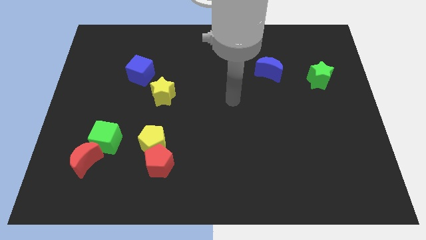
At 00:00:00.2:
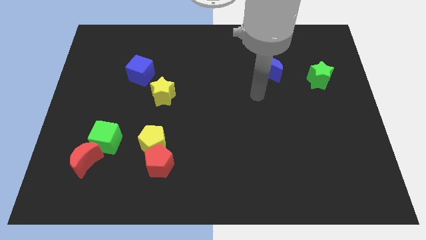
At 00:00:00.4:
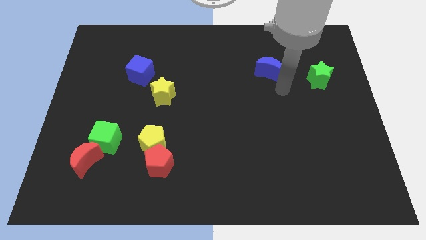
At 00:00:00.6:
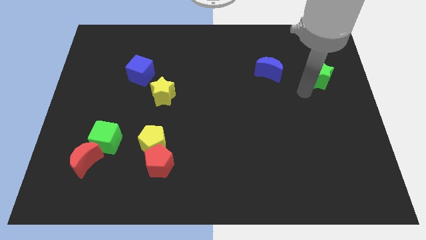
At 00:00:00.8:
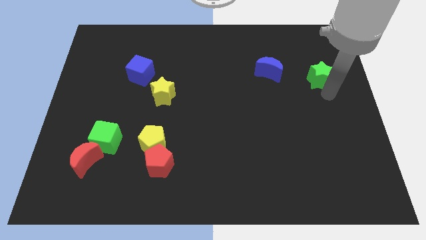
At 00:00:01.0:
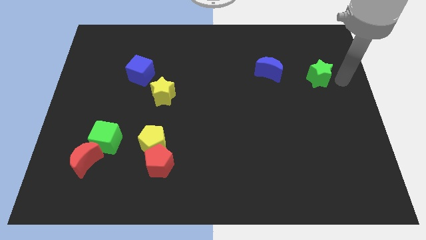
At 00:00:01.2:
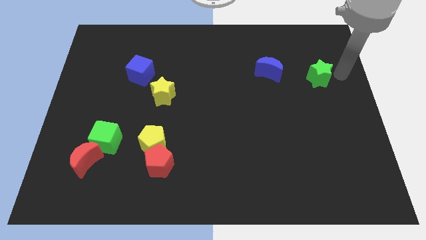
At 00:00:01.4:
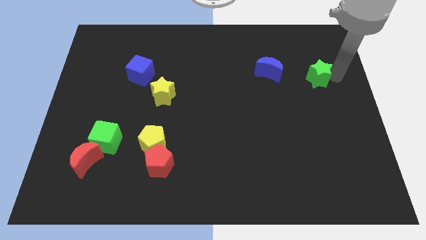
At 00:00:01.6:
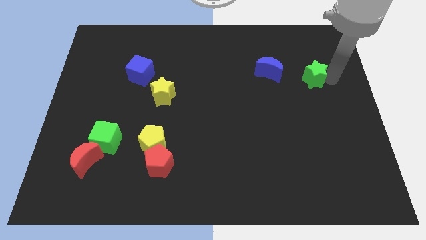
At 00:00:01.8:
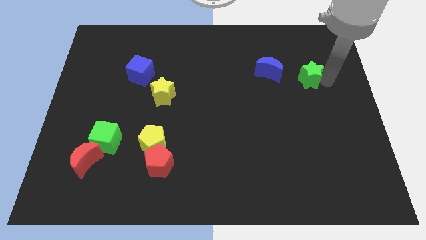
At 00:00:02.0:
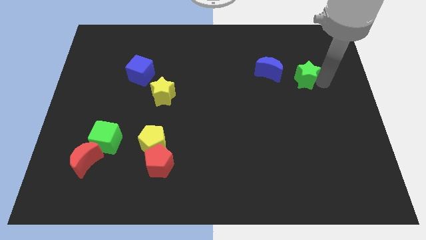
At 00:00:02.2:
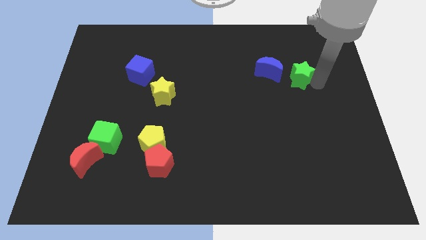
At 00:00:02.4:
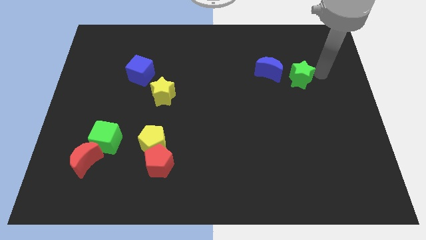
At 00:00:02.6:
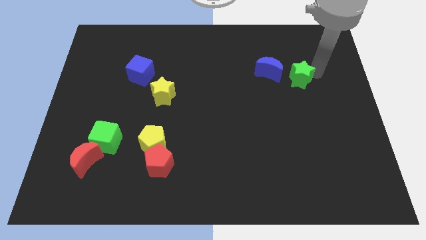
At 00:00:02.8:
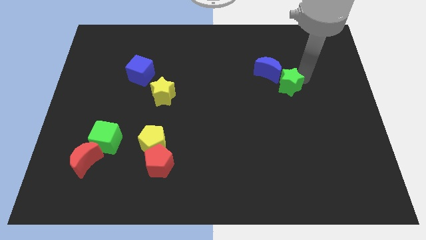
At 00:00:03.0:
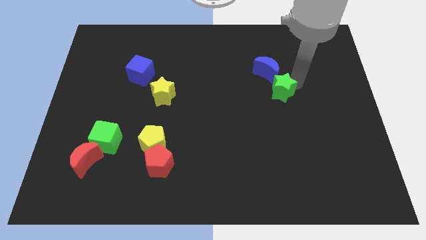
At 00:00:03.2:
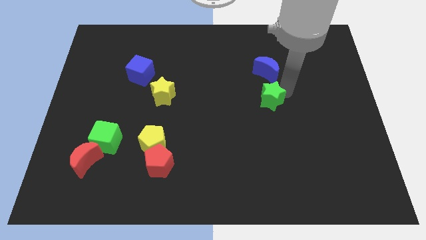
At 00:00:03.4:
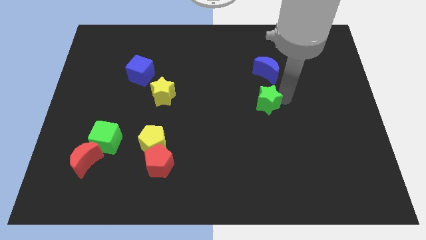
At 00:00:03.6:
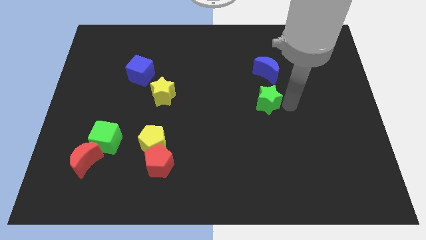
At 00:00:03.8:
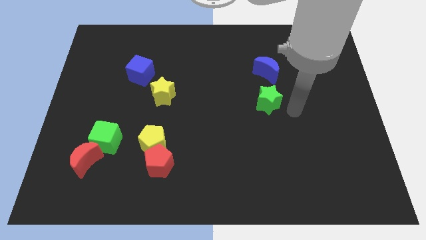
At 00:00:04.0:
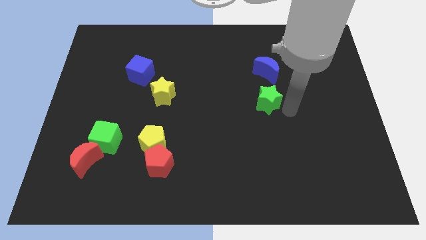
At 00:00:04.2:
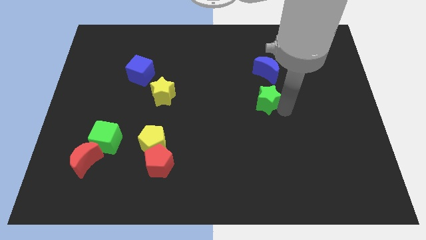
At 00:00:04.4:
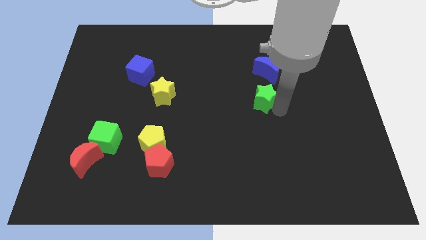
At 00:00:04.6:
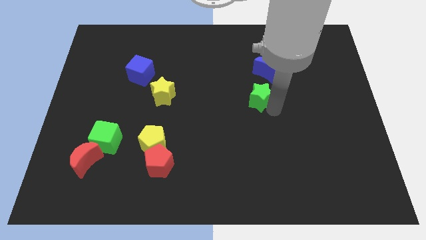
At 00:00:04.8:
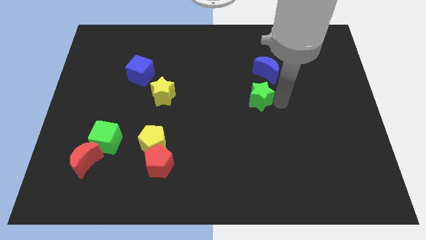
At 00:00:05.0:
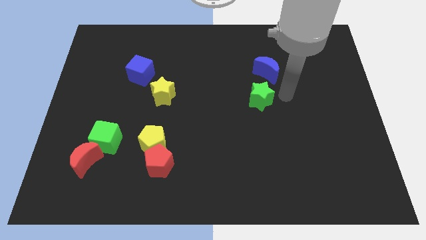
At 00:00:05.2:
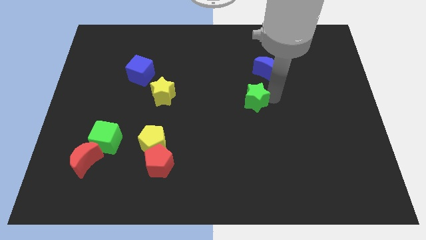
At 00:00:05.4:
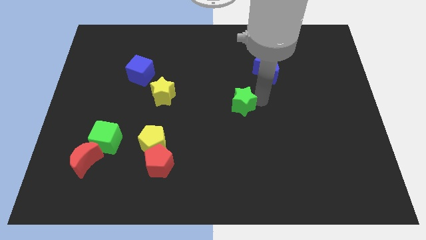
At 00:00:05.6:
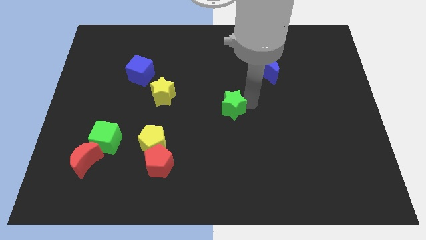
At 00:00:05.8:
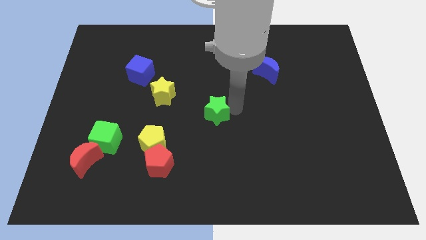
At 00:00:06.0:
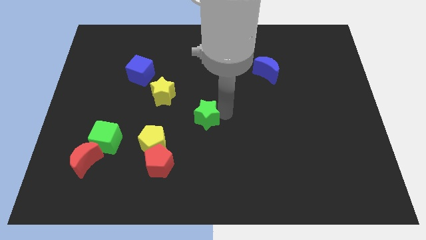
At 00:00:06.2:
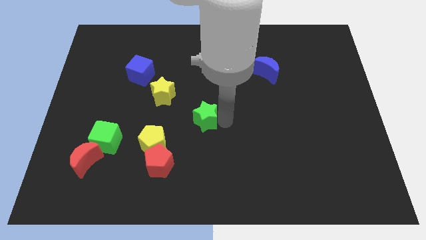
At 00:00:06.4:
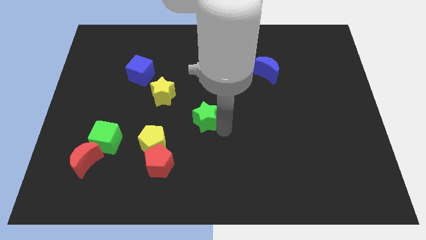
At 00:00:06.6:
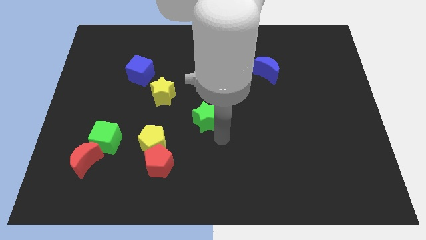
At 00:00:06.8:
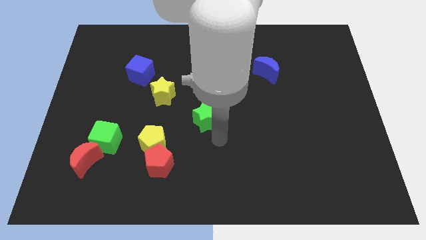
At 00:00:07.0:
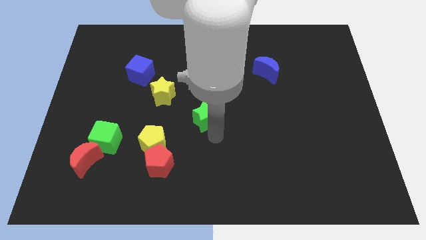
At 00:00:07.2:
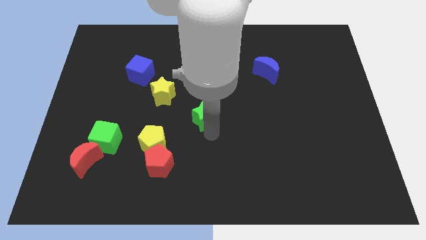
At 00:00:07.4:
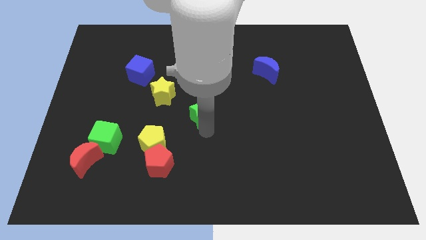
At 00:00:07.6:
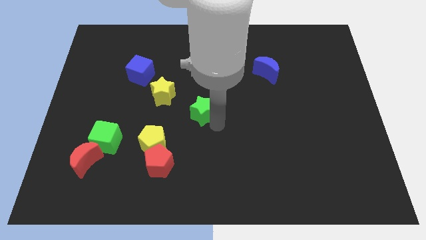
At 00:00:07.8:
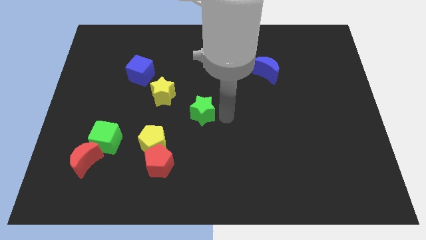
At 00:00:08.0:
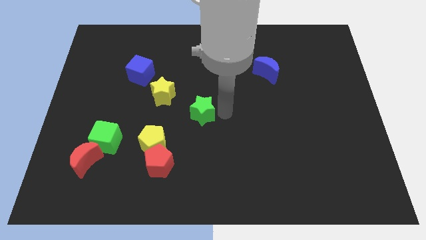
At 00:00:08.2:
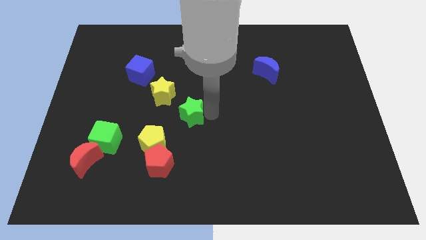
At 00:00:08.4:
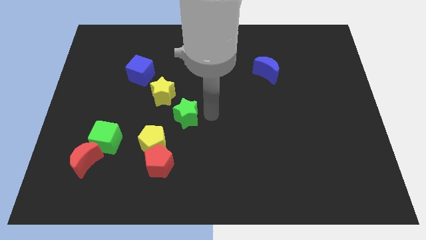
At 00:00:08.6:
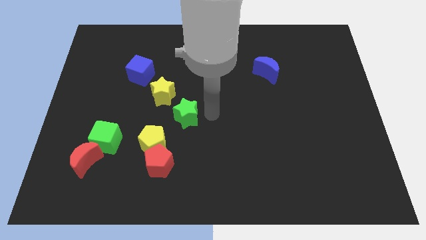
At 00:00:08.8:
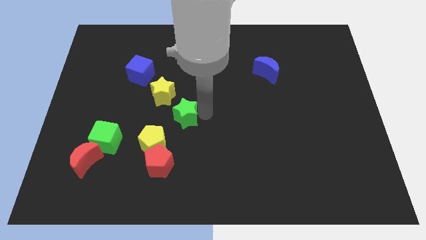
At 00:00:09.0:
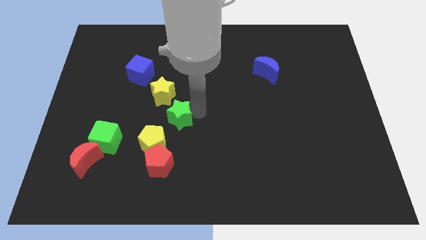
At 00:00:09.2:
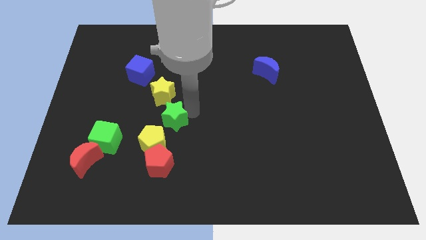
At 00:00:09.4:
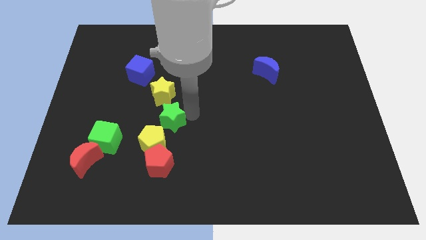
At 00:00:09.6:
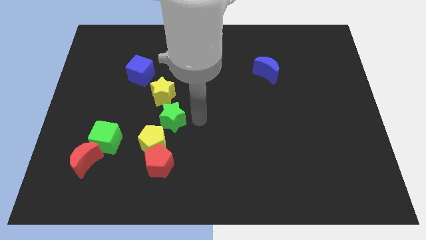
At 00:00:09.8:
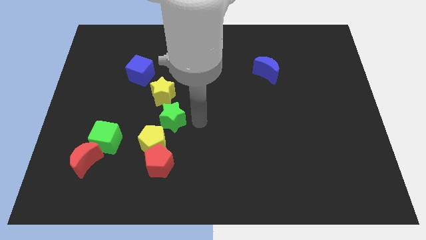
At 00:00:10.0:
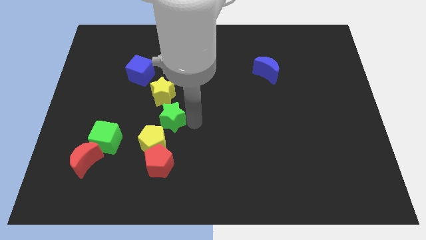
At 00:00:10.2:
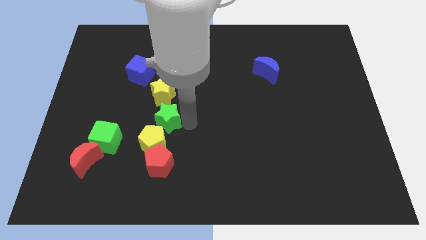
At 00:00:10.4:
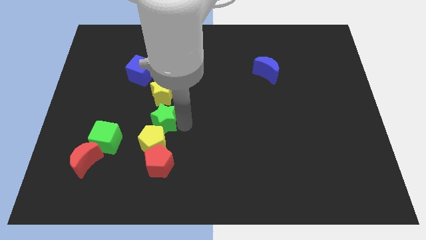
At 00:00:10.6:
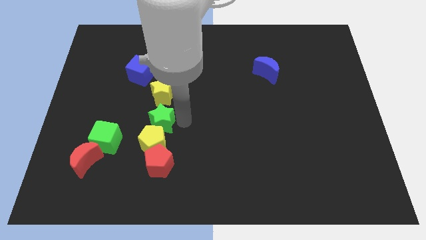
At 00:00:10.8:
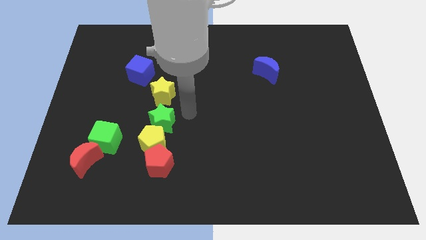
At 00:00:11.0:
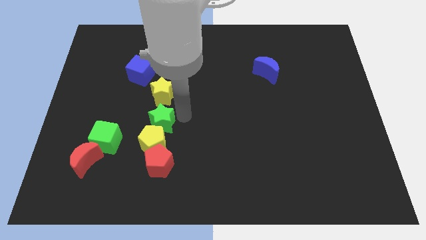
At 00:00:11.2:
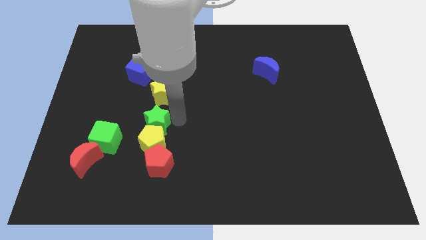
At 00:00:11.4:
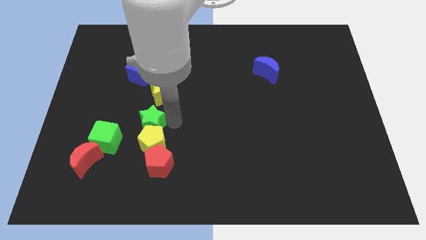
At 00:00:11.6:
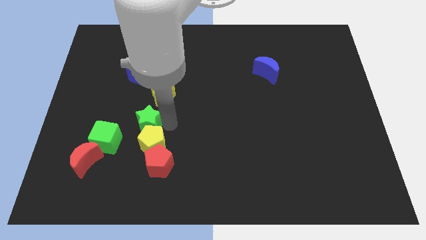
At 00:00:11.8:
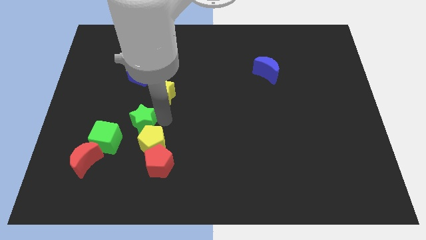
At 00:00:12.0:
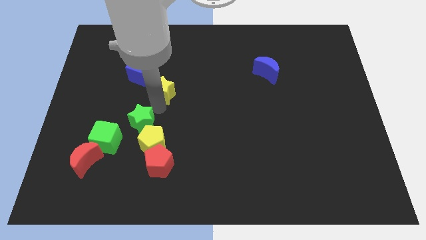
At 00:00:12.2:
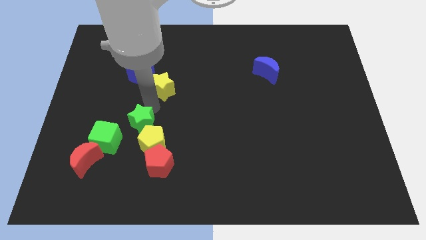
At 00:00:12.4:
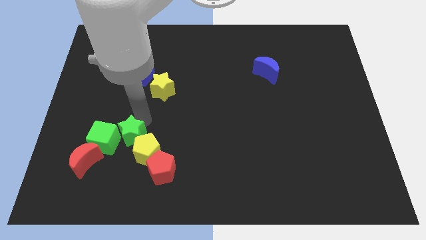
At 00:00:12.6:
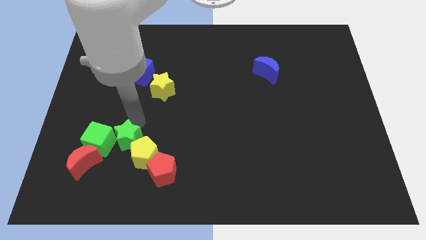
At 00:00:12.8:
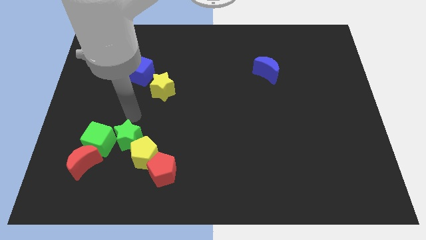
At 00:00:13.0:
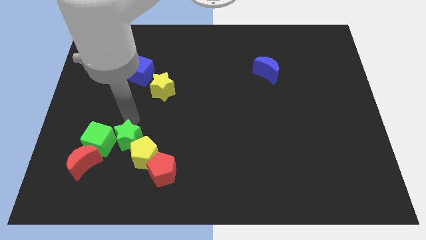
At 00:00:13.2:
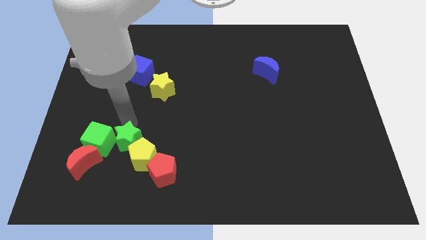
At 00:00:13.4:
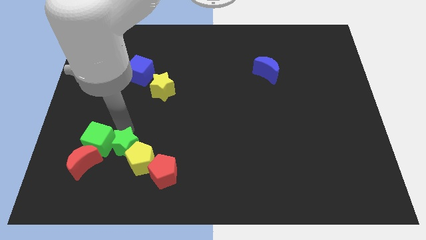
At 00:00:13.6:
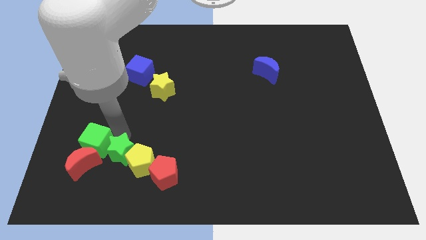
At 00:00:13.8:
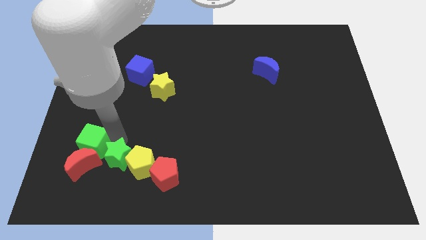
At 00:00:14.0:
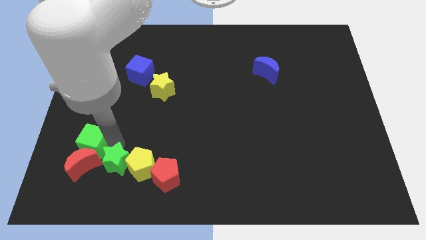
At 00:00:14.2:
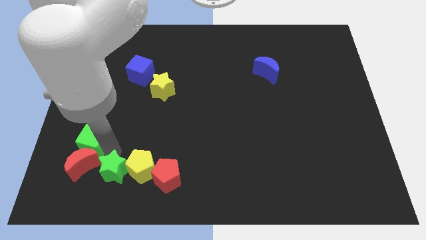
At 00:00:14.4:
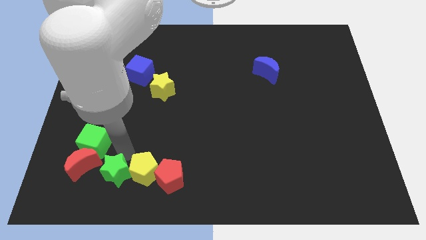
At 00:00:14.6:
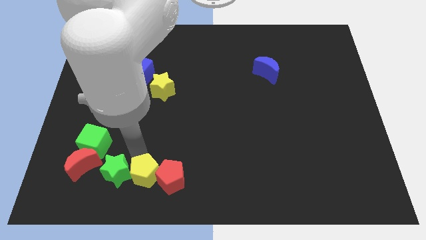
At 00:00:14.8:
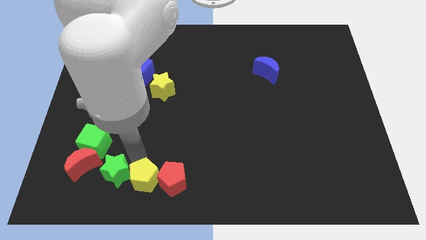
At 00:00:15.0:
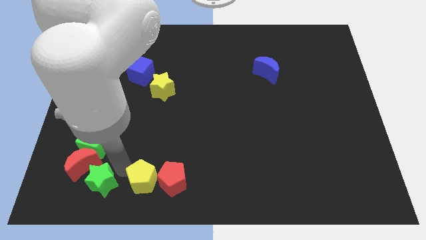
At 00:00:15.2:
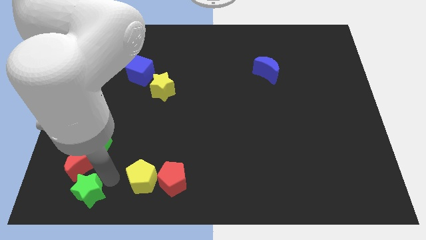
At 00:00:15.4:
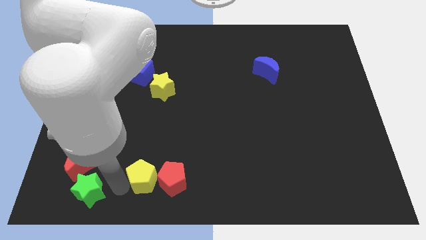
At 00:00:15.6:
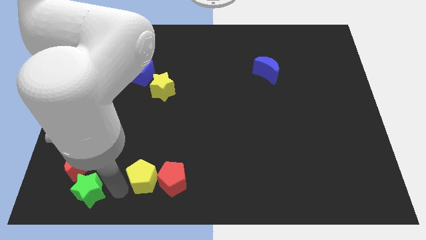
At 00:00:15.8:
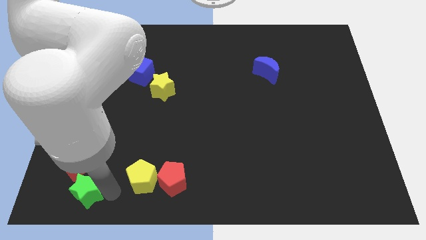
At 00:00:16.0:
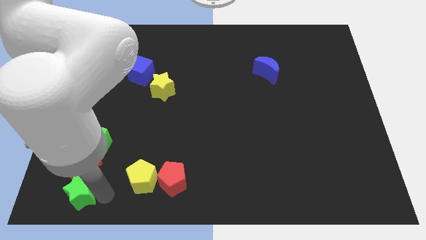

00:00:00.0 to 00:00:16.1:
put the green star to the bottom left of the board
